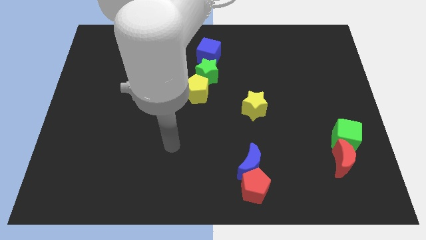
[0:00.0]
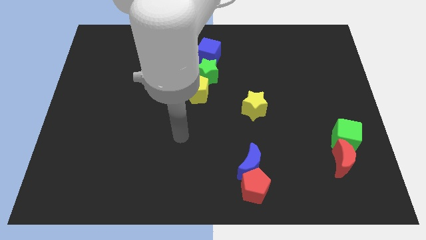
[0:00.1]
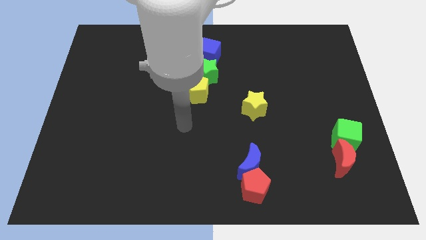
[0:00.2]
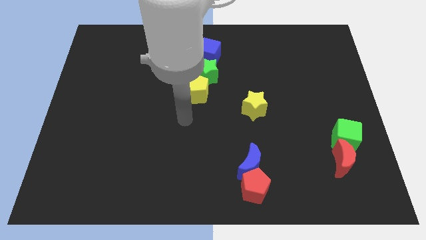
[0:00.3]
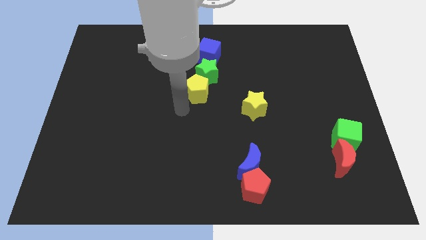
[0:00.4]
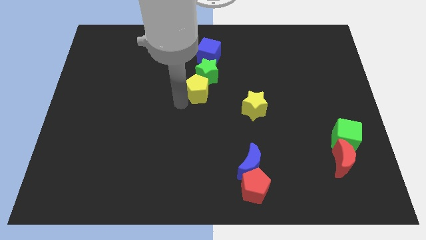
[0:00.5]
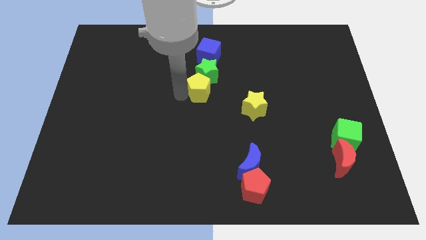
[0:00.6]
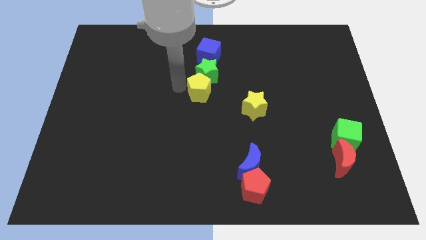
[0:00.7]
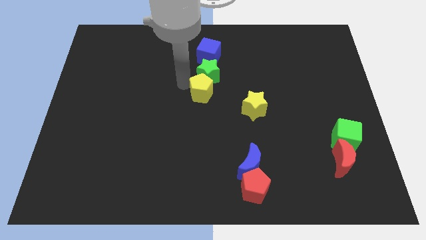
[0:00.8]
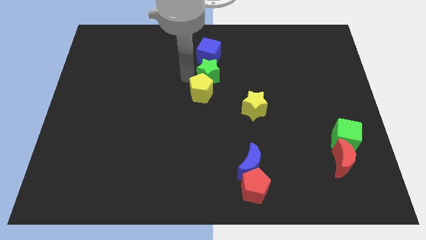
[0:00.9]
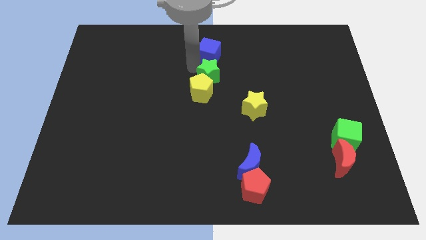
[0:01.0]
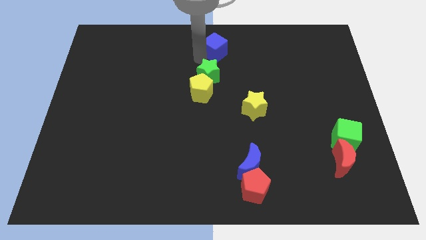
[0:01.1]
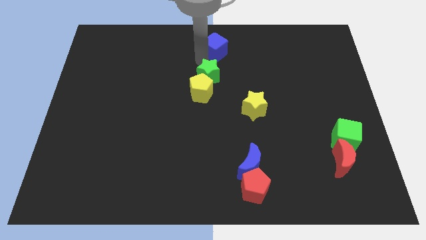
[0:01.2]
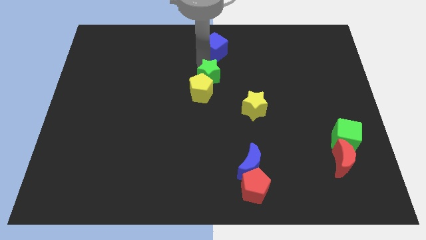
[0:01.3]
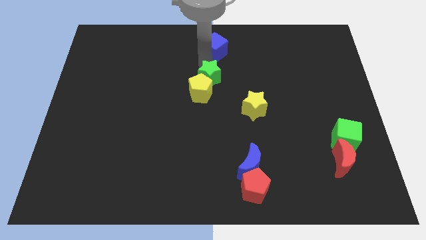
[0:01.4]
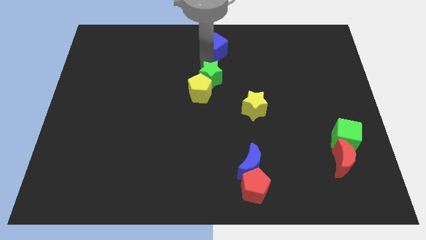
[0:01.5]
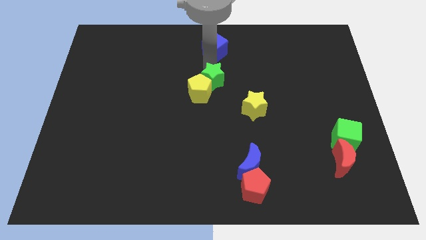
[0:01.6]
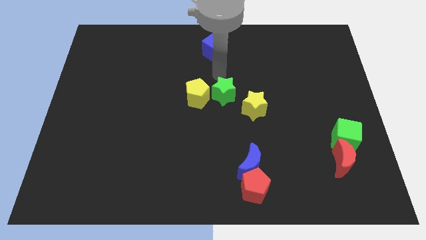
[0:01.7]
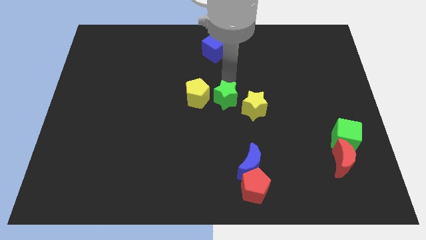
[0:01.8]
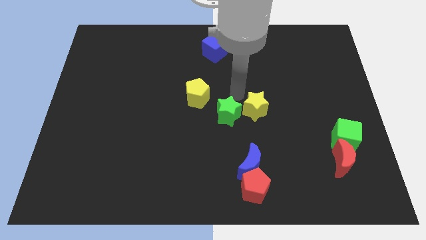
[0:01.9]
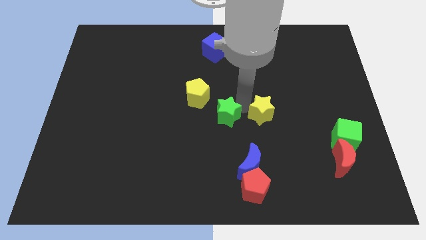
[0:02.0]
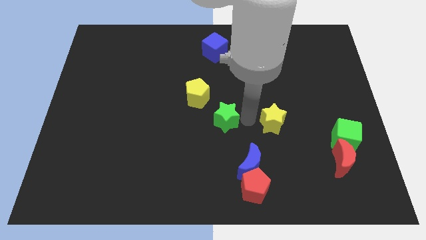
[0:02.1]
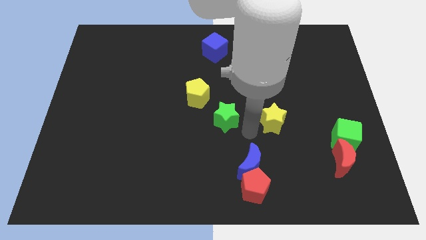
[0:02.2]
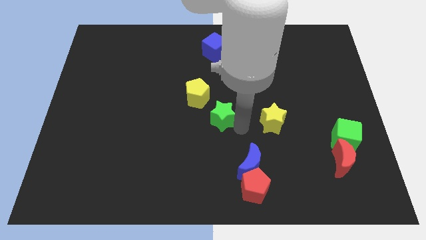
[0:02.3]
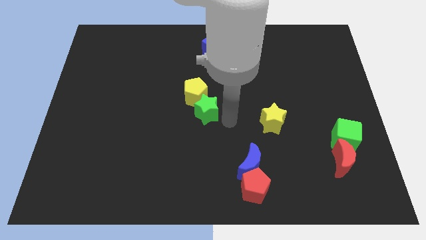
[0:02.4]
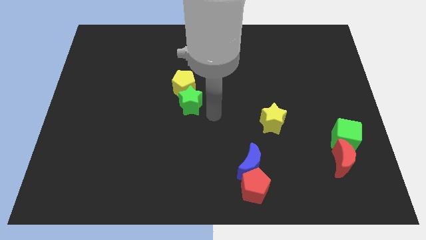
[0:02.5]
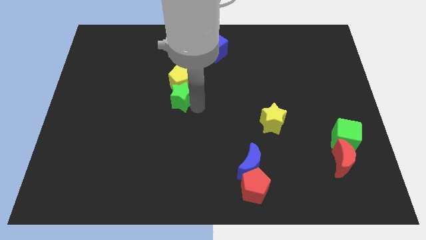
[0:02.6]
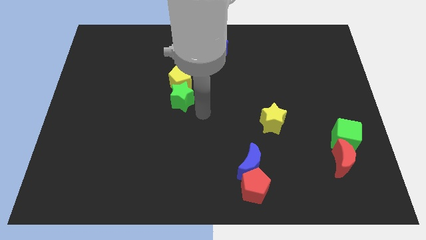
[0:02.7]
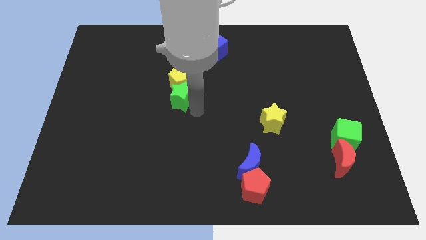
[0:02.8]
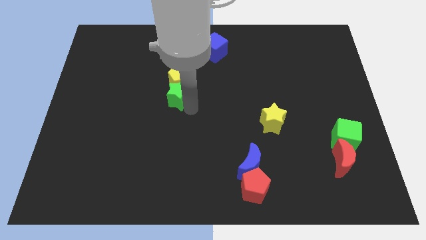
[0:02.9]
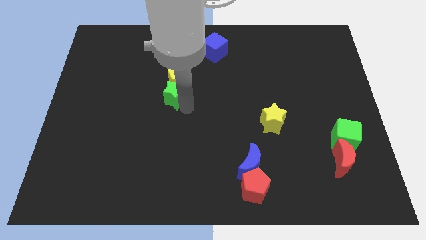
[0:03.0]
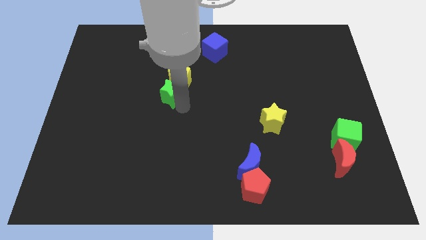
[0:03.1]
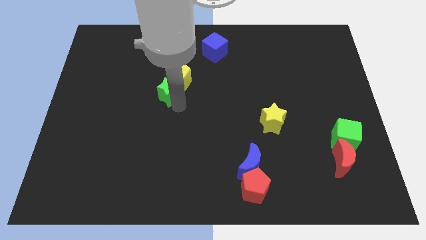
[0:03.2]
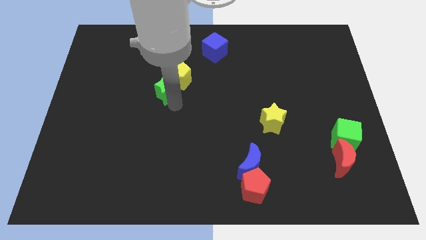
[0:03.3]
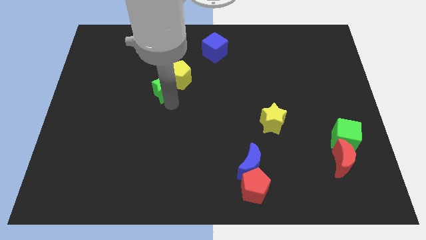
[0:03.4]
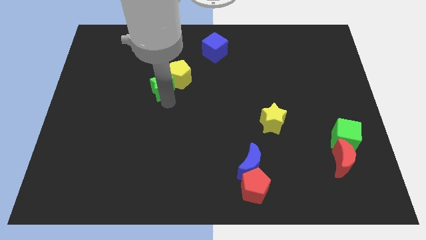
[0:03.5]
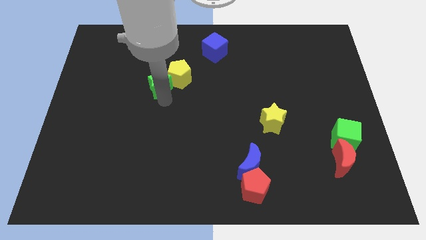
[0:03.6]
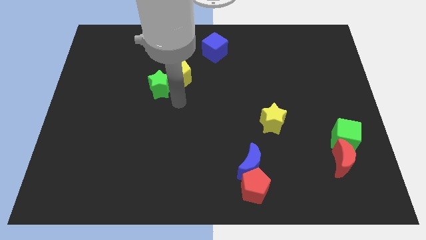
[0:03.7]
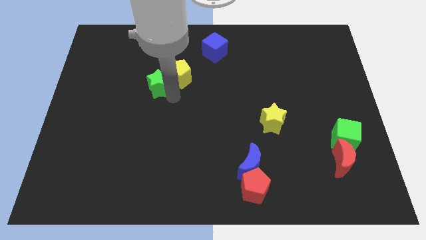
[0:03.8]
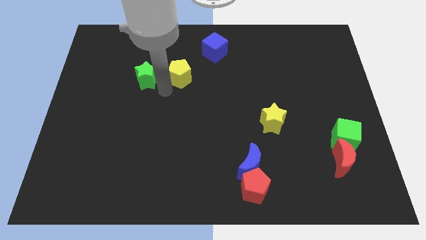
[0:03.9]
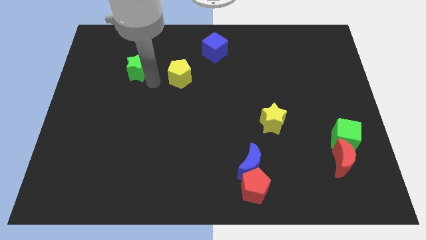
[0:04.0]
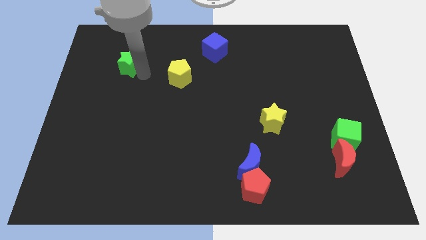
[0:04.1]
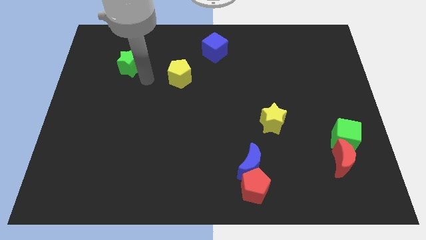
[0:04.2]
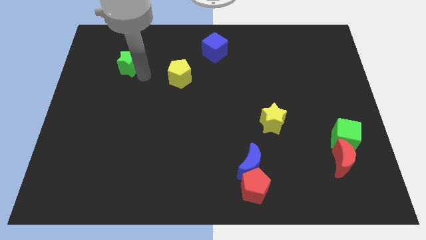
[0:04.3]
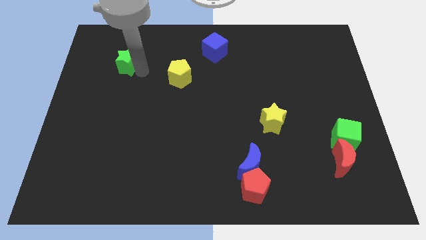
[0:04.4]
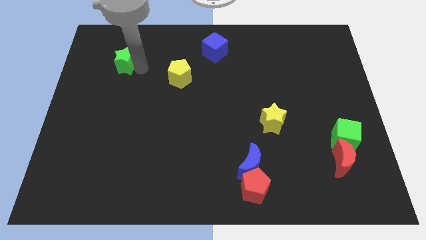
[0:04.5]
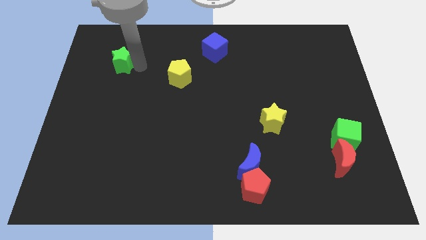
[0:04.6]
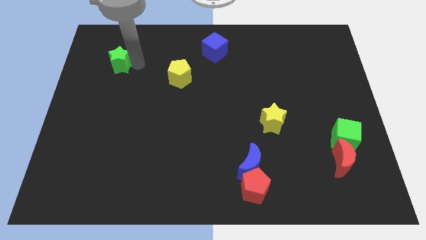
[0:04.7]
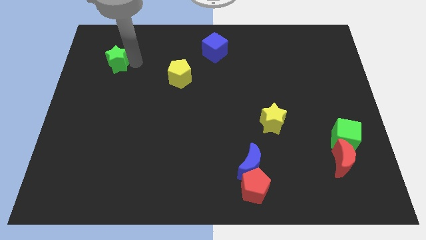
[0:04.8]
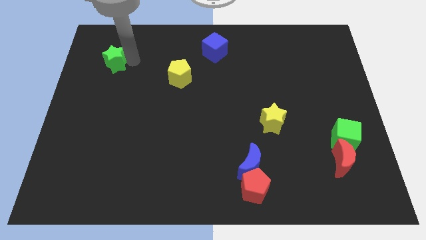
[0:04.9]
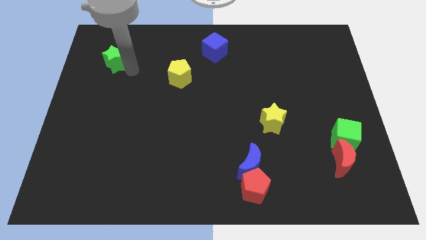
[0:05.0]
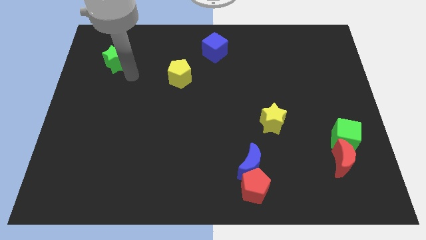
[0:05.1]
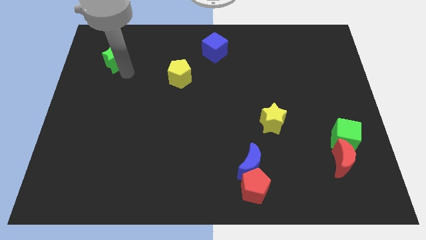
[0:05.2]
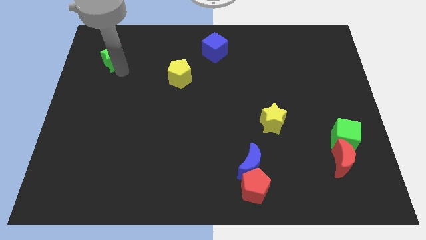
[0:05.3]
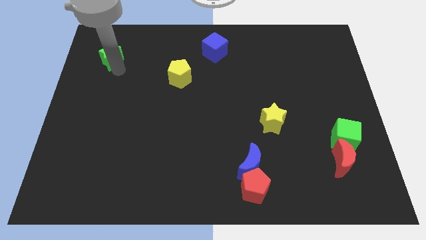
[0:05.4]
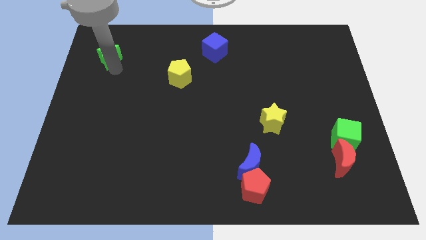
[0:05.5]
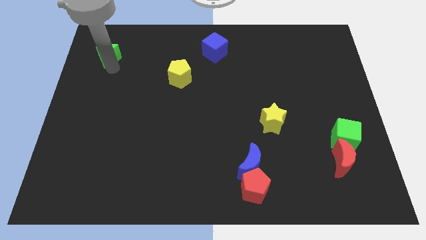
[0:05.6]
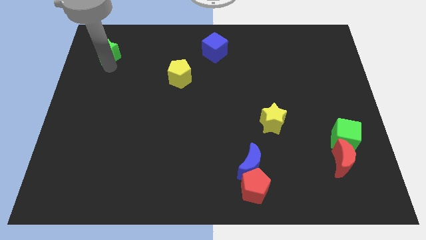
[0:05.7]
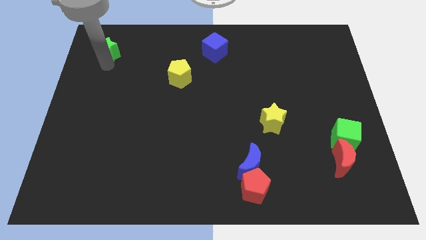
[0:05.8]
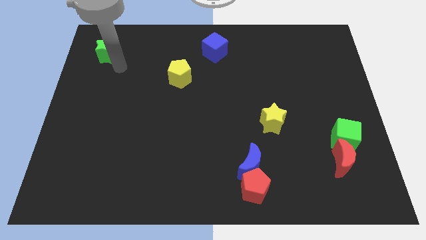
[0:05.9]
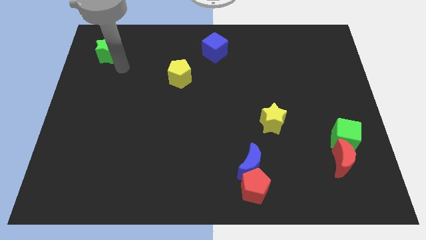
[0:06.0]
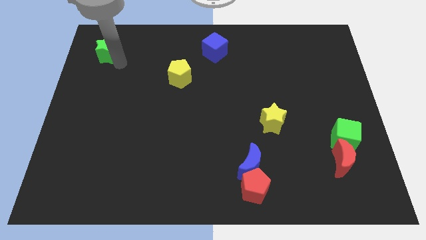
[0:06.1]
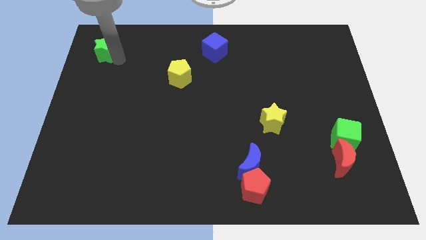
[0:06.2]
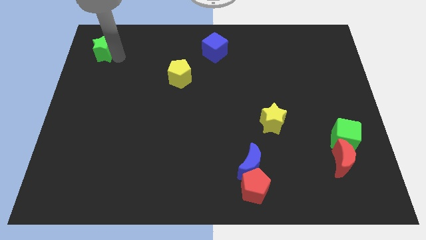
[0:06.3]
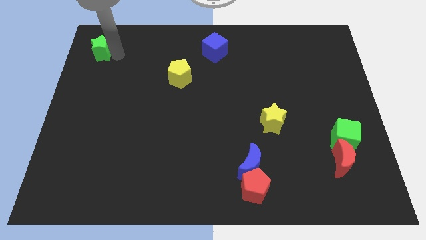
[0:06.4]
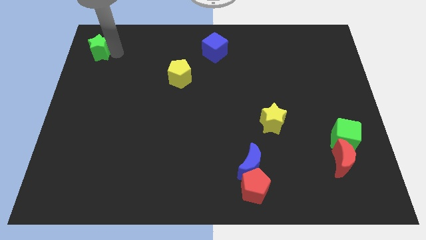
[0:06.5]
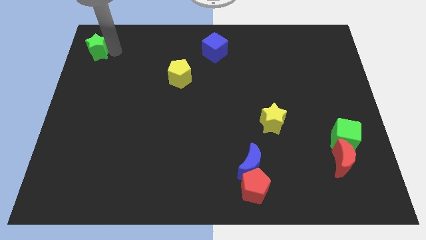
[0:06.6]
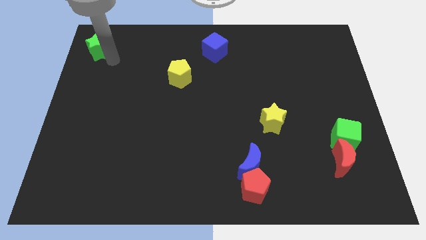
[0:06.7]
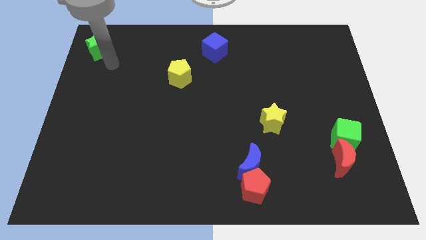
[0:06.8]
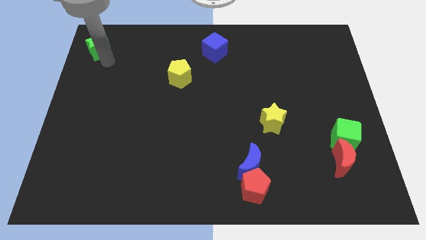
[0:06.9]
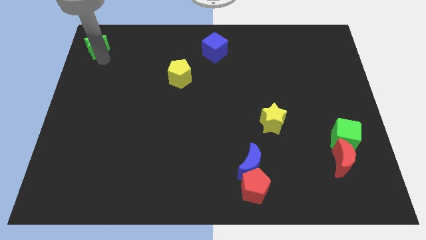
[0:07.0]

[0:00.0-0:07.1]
put the green star to the top left of the board
